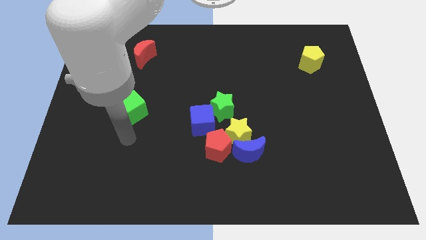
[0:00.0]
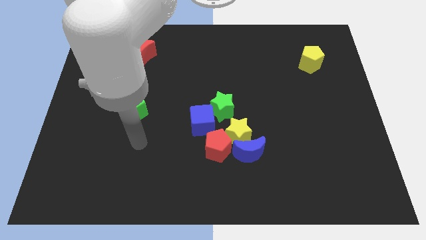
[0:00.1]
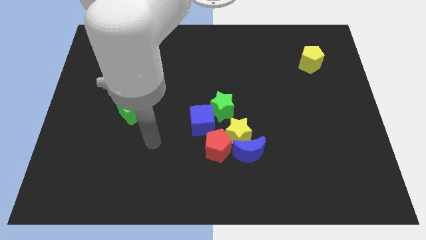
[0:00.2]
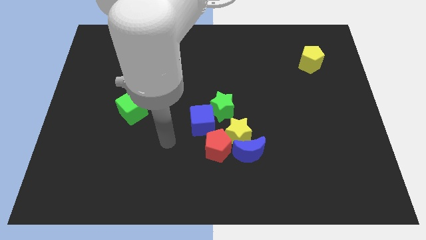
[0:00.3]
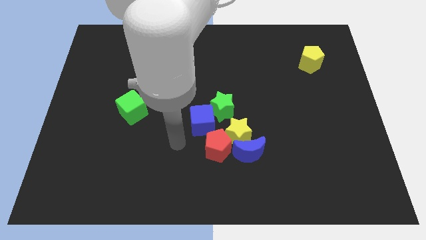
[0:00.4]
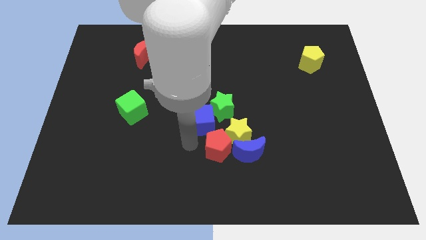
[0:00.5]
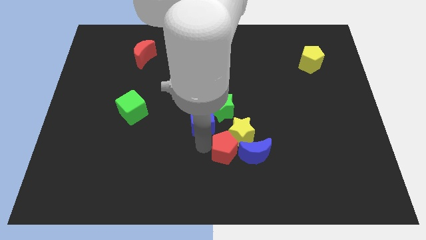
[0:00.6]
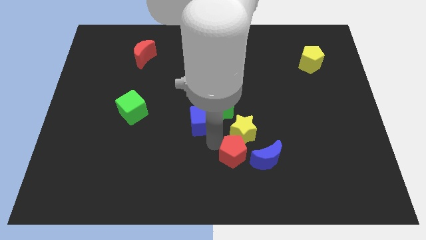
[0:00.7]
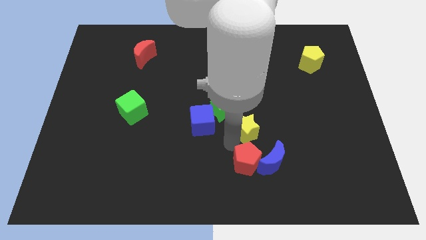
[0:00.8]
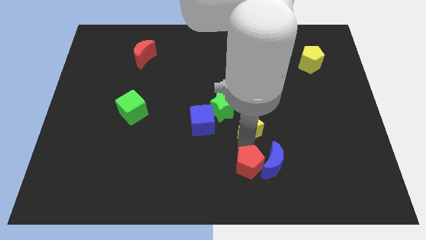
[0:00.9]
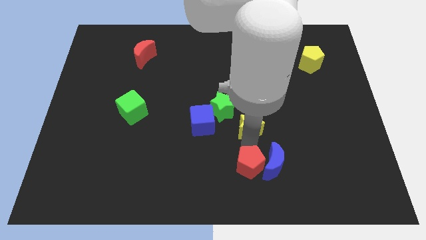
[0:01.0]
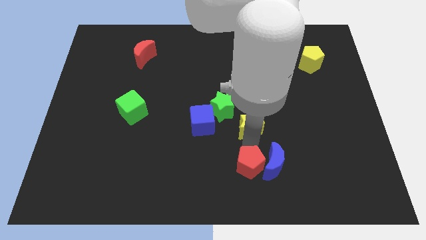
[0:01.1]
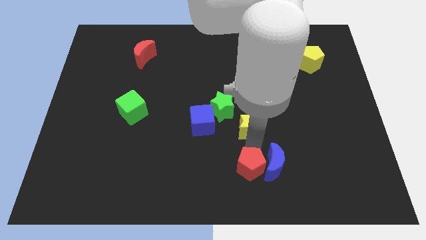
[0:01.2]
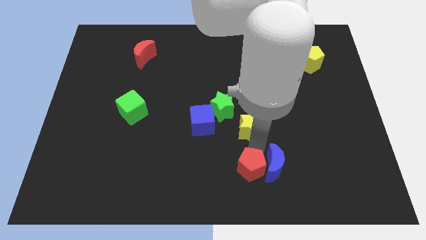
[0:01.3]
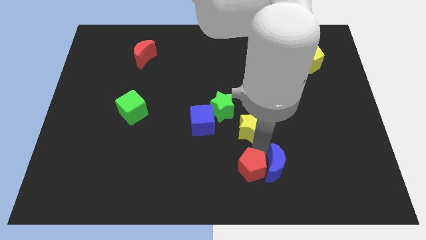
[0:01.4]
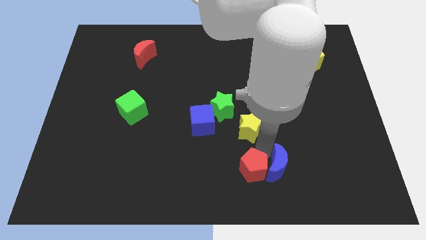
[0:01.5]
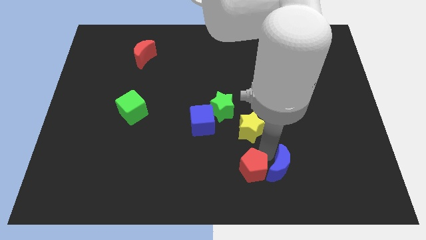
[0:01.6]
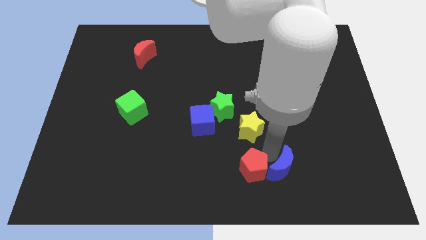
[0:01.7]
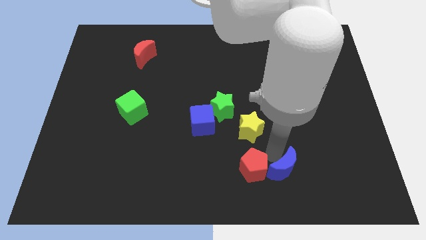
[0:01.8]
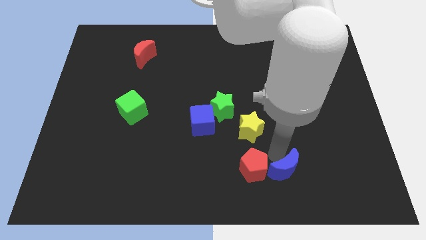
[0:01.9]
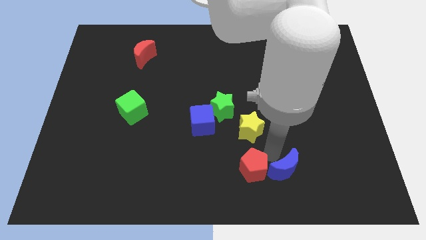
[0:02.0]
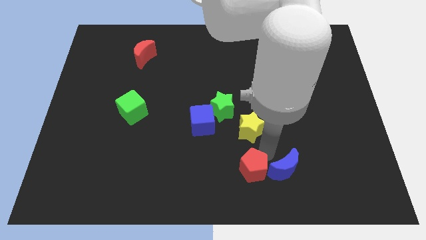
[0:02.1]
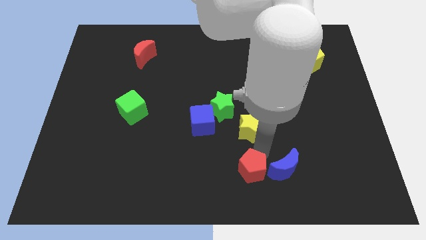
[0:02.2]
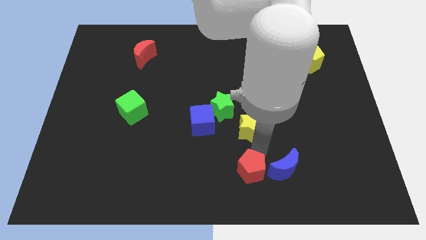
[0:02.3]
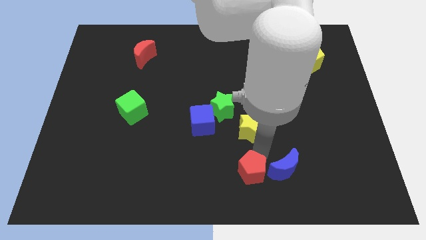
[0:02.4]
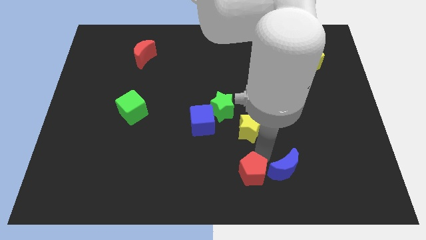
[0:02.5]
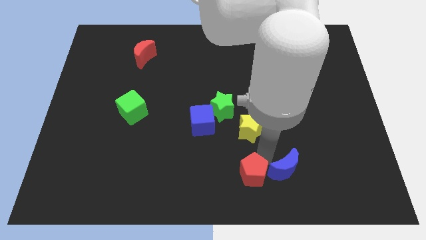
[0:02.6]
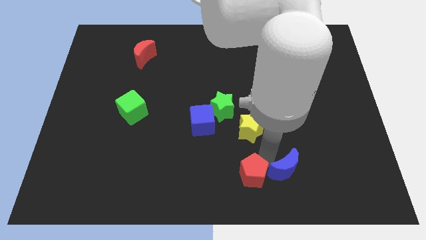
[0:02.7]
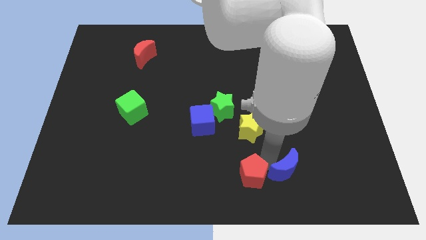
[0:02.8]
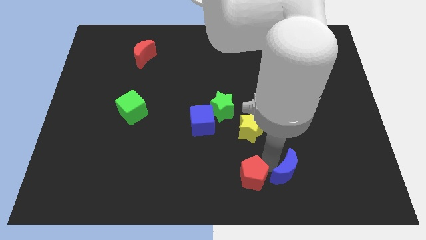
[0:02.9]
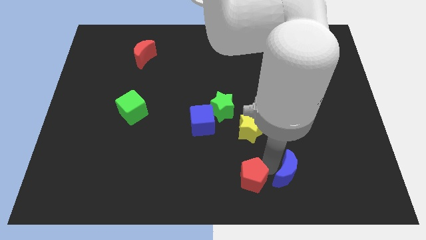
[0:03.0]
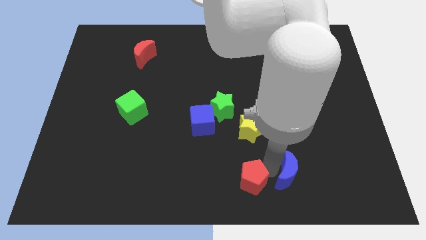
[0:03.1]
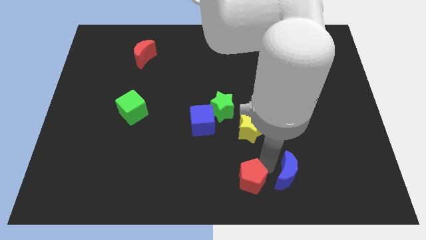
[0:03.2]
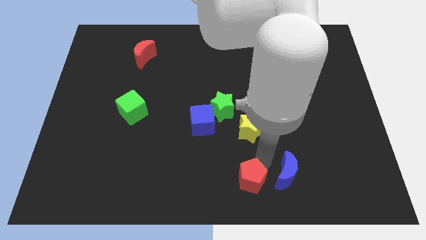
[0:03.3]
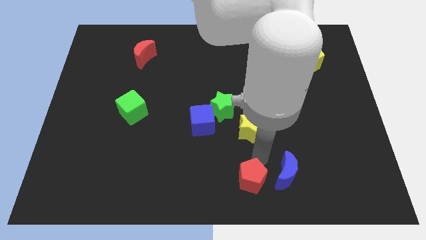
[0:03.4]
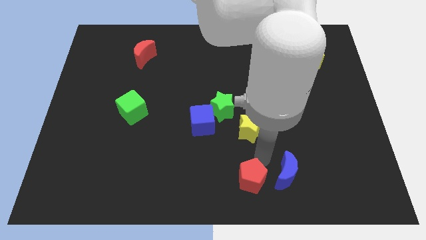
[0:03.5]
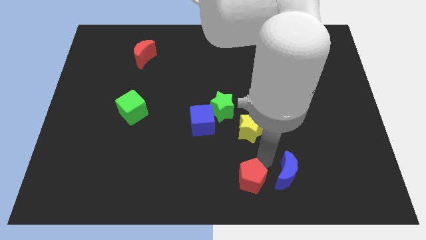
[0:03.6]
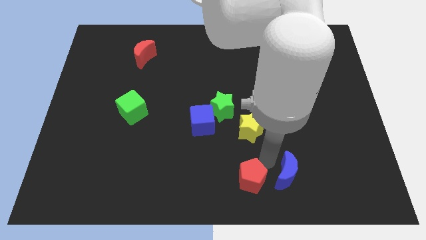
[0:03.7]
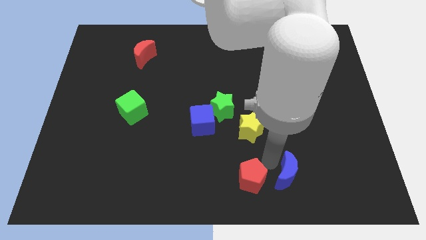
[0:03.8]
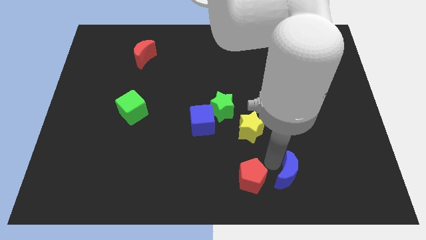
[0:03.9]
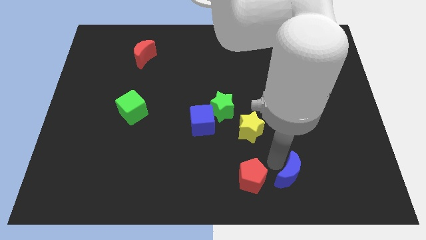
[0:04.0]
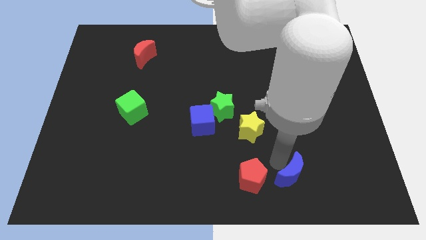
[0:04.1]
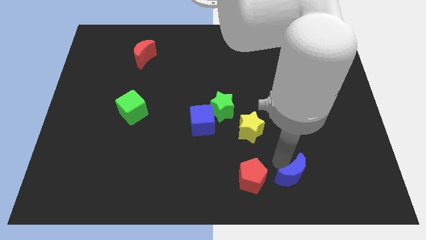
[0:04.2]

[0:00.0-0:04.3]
move the blue moon away from the yellow star and red pentagon

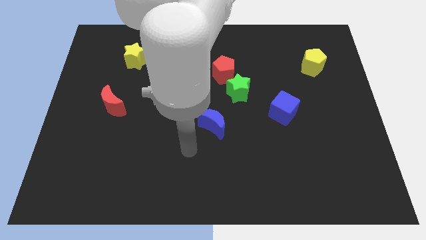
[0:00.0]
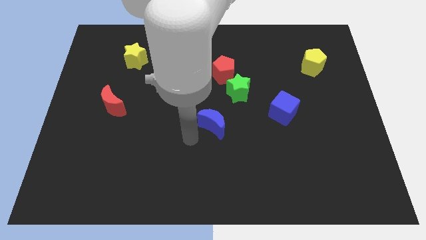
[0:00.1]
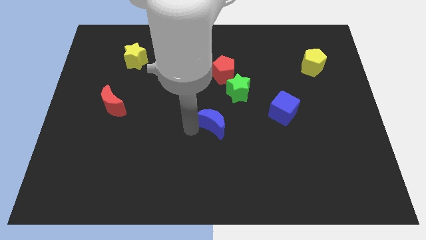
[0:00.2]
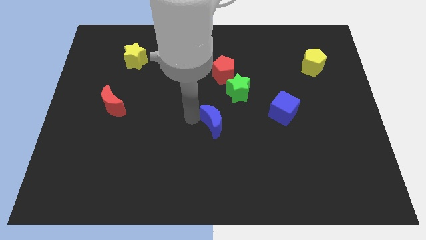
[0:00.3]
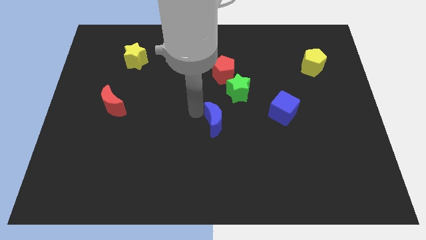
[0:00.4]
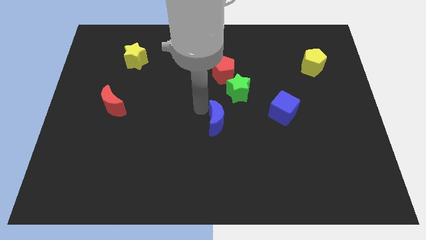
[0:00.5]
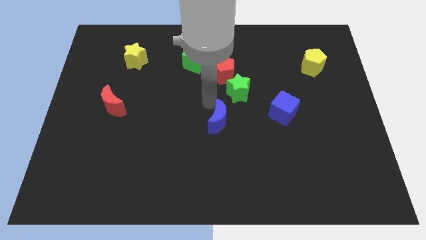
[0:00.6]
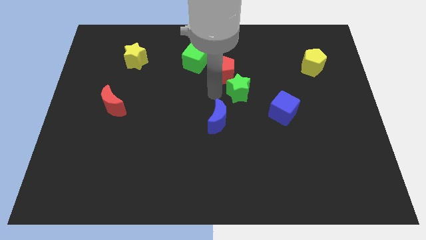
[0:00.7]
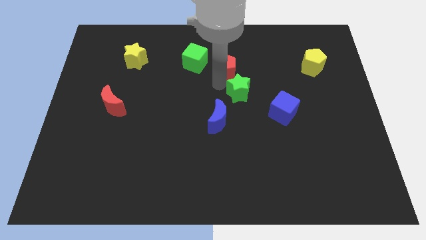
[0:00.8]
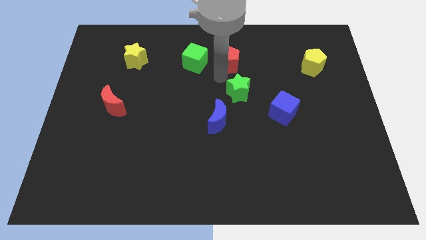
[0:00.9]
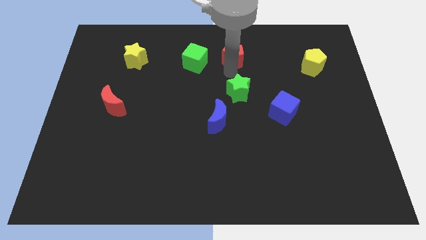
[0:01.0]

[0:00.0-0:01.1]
move the green star away from the red pentagon

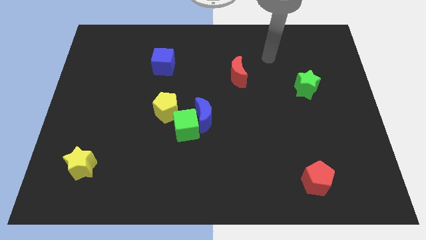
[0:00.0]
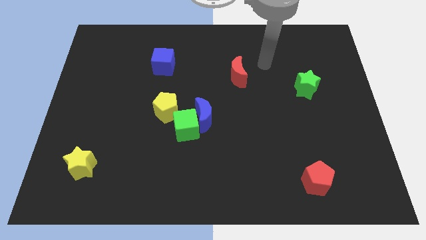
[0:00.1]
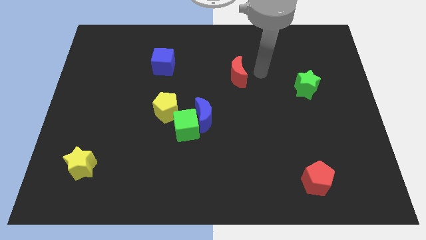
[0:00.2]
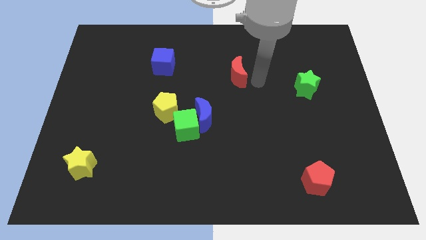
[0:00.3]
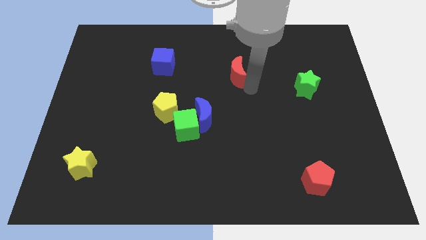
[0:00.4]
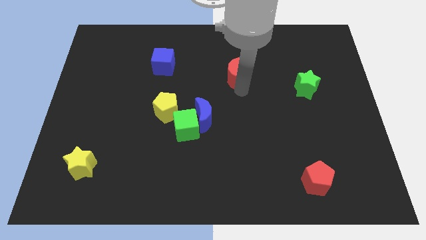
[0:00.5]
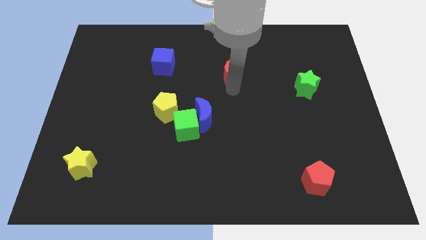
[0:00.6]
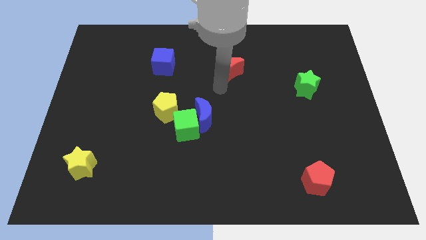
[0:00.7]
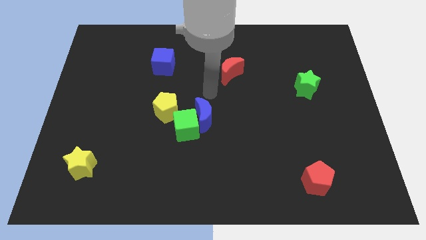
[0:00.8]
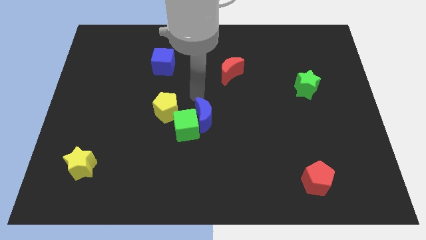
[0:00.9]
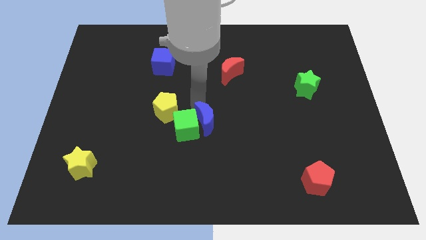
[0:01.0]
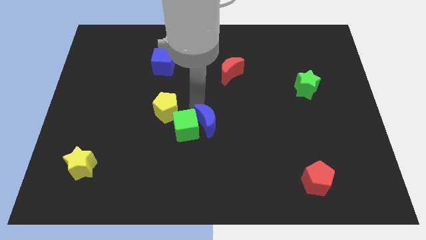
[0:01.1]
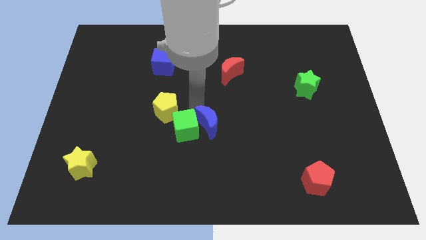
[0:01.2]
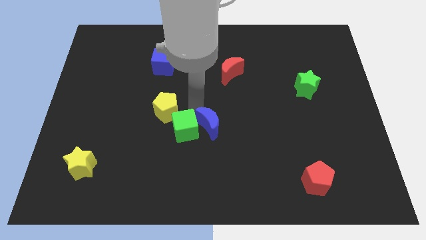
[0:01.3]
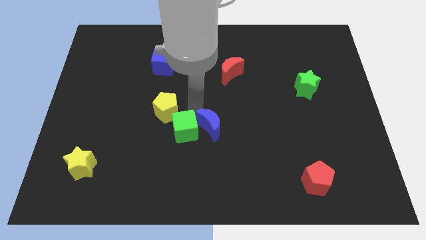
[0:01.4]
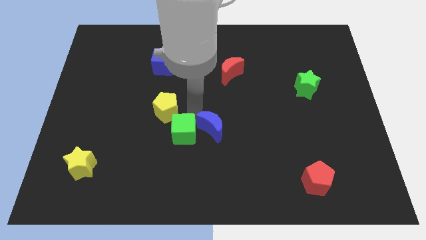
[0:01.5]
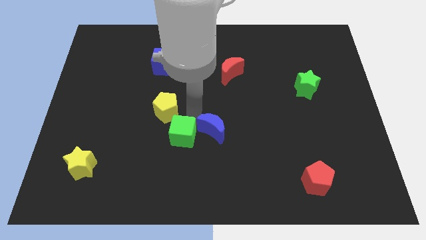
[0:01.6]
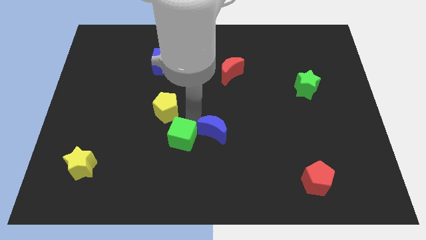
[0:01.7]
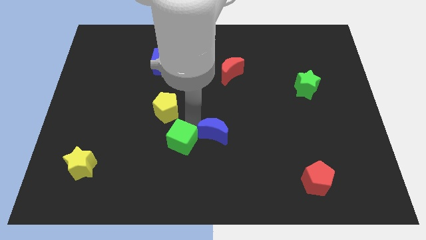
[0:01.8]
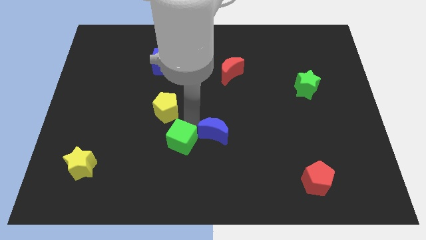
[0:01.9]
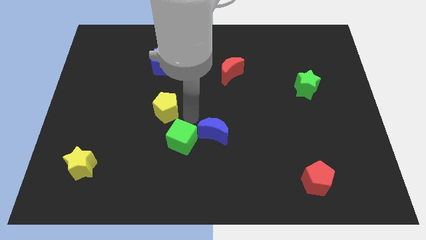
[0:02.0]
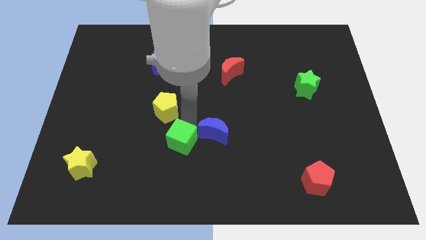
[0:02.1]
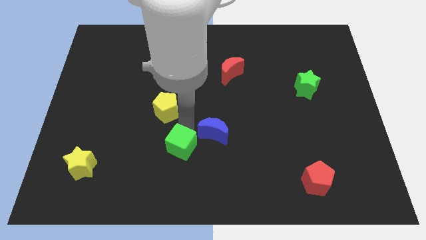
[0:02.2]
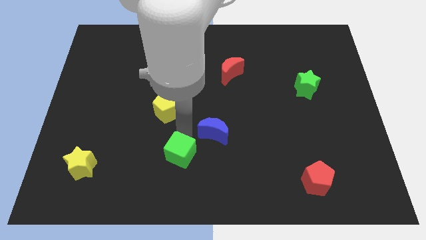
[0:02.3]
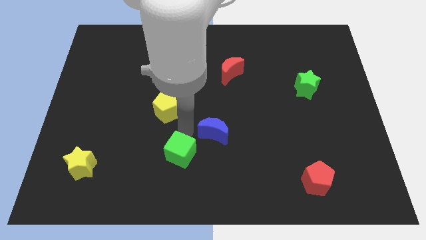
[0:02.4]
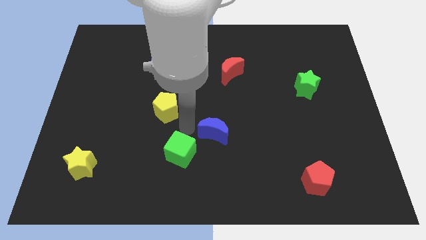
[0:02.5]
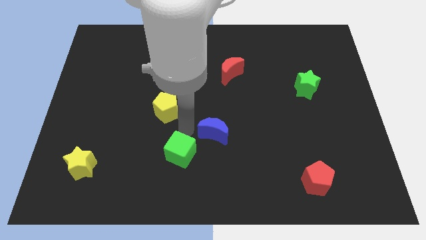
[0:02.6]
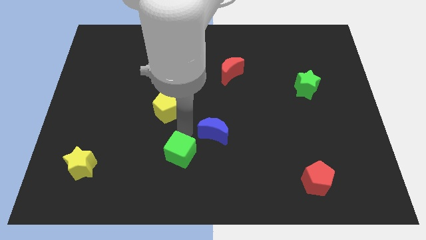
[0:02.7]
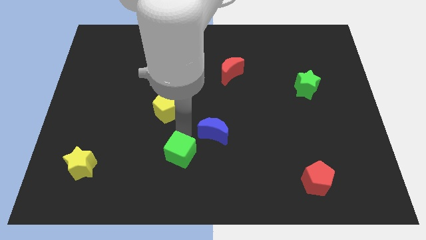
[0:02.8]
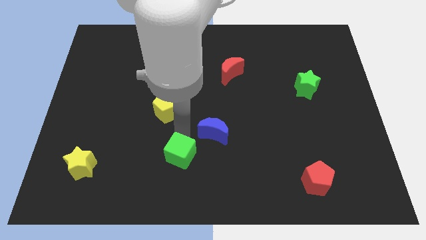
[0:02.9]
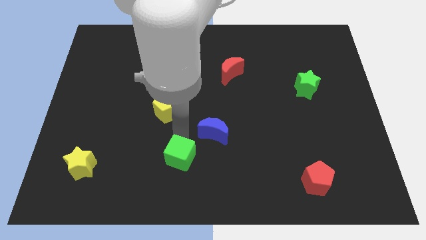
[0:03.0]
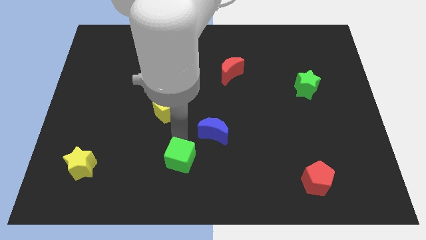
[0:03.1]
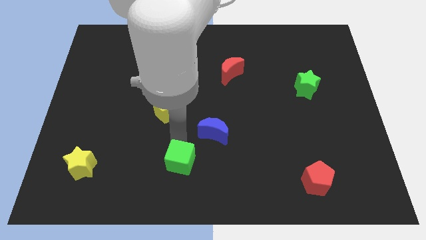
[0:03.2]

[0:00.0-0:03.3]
move the green cube away from the blue moon and yellow pentagon

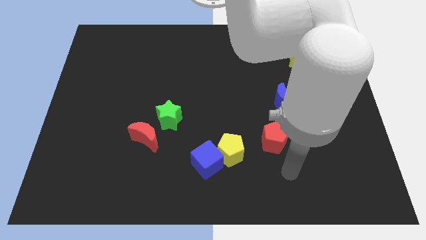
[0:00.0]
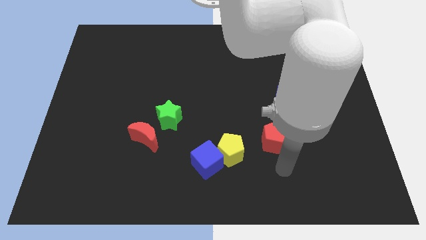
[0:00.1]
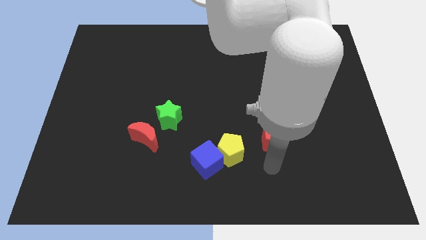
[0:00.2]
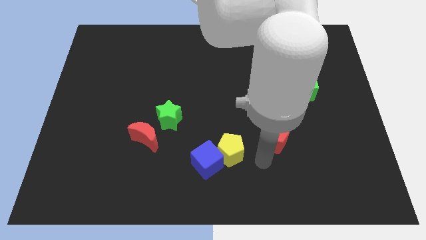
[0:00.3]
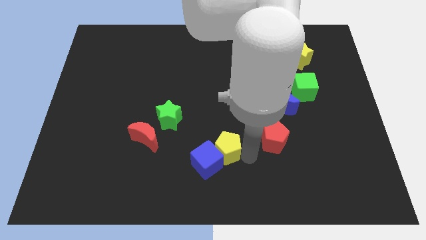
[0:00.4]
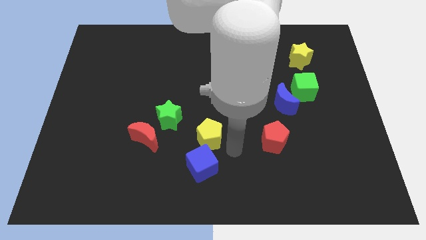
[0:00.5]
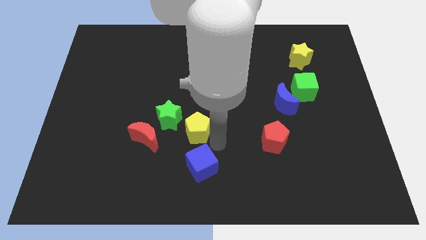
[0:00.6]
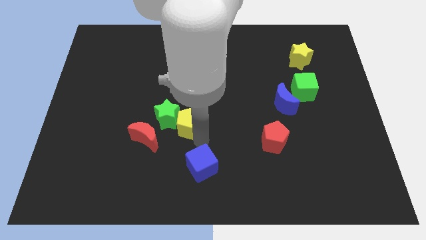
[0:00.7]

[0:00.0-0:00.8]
separate the blue cube from the yellow pentagon
